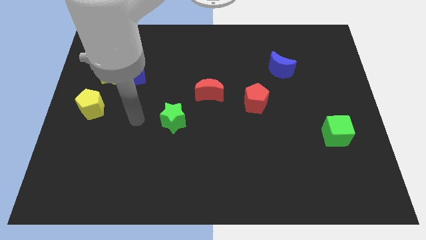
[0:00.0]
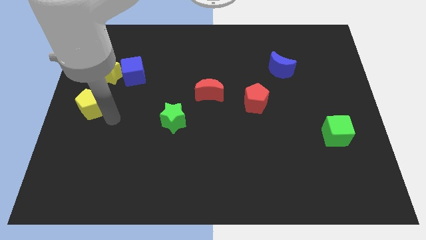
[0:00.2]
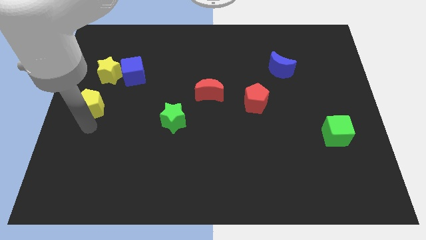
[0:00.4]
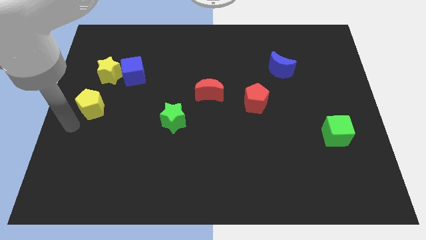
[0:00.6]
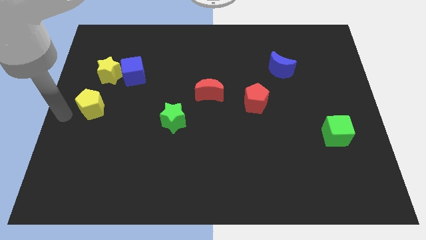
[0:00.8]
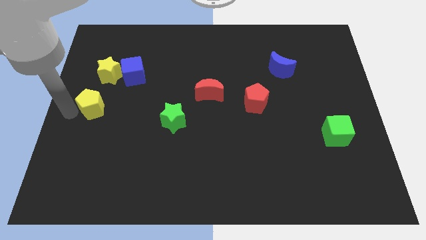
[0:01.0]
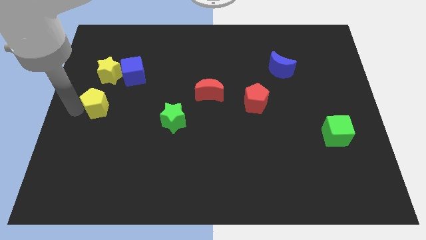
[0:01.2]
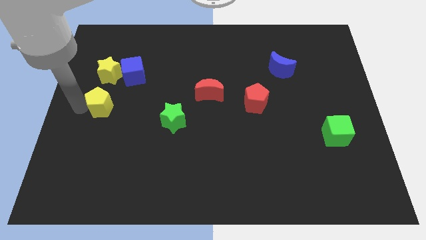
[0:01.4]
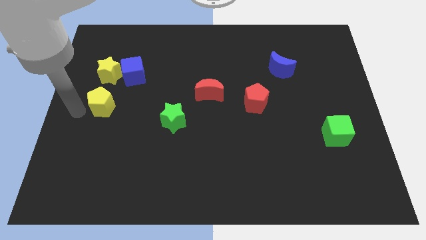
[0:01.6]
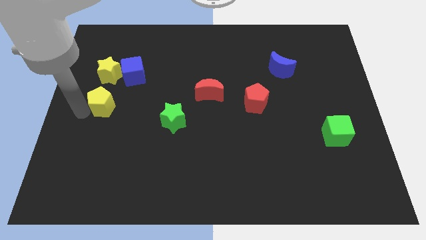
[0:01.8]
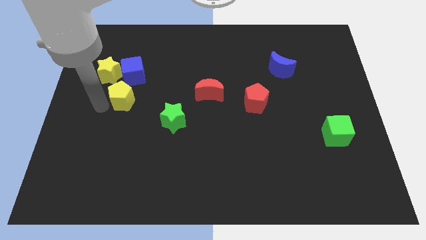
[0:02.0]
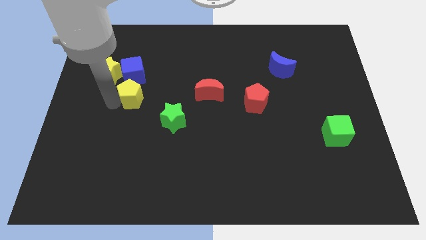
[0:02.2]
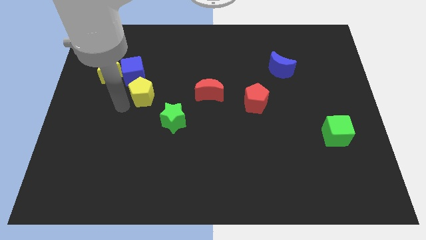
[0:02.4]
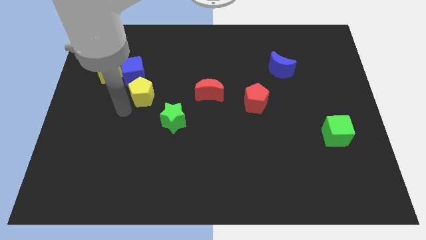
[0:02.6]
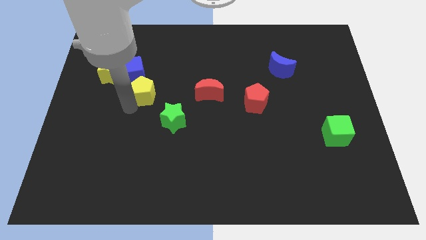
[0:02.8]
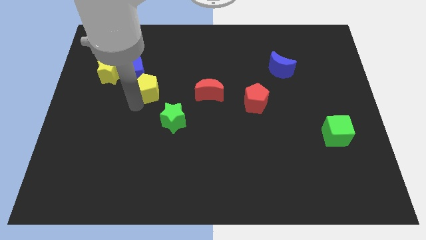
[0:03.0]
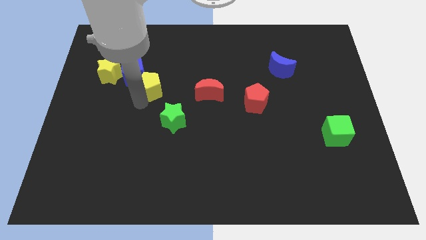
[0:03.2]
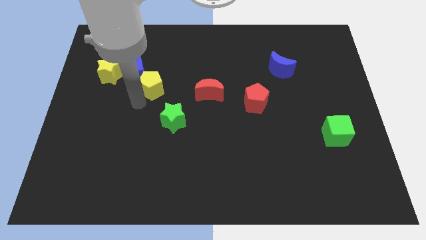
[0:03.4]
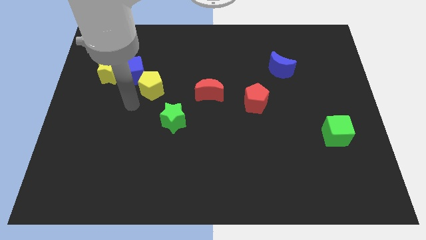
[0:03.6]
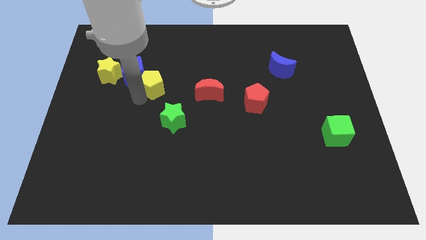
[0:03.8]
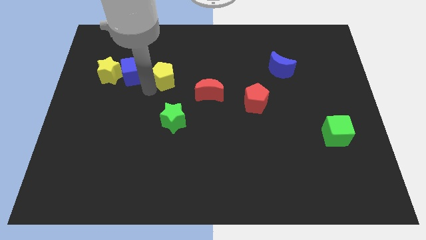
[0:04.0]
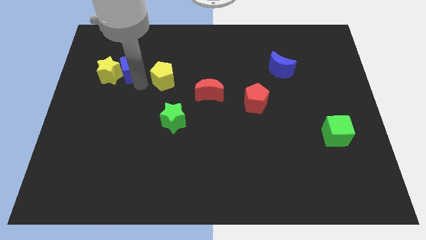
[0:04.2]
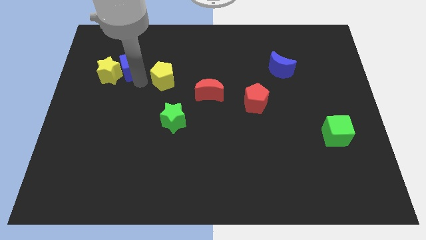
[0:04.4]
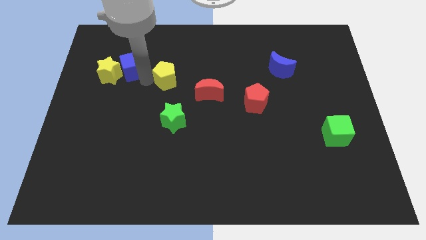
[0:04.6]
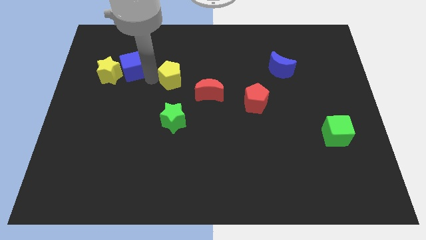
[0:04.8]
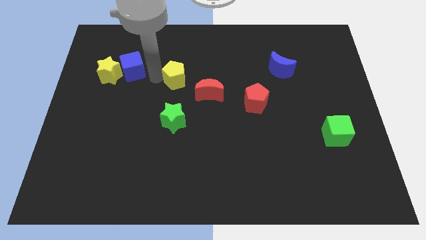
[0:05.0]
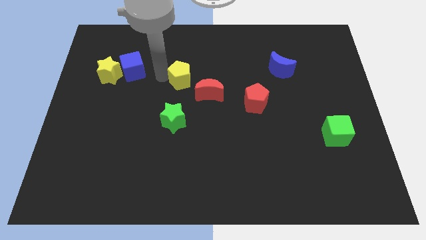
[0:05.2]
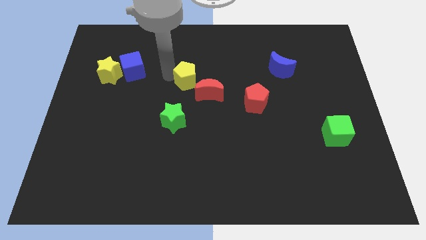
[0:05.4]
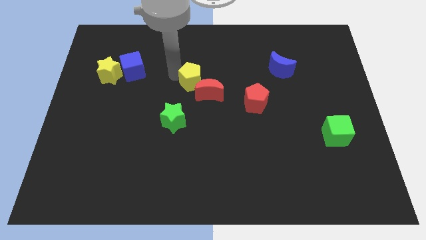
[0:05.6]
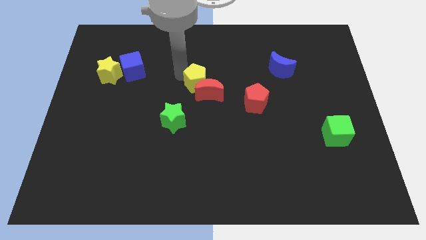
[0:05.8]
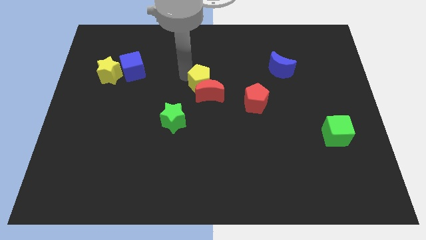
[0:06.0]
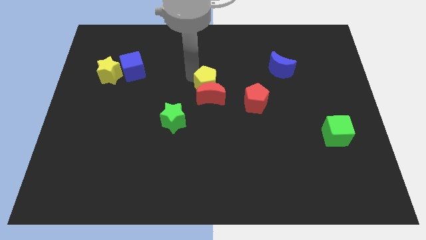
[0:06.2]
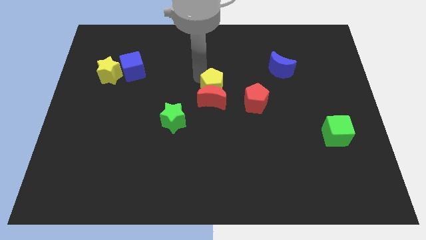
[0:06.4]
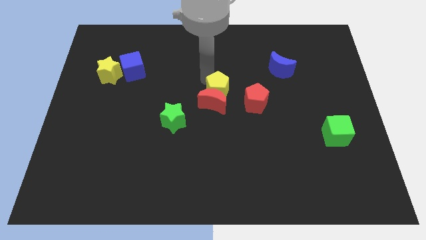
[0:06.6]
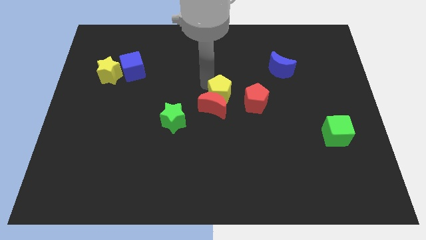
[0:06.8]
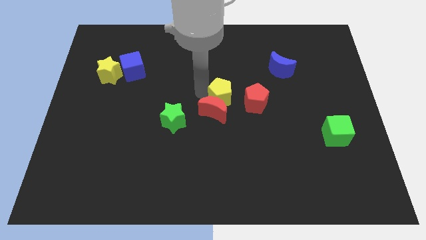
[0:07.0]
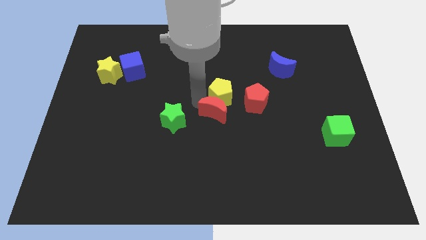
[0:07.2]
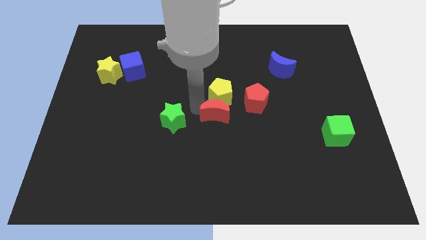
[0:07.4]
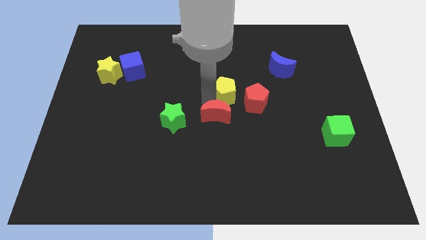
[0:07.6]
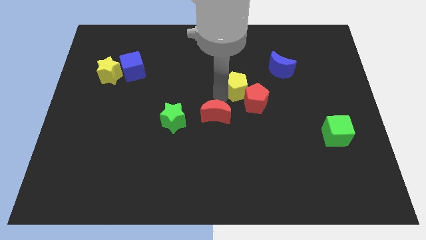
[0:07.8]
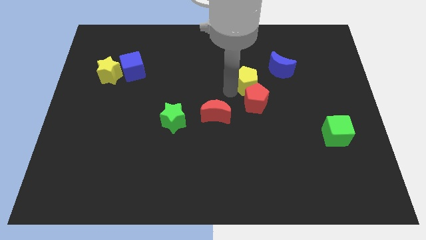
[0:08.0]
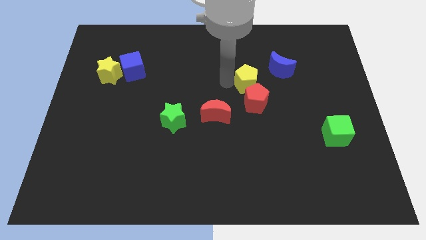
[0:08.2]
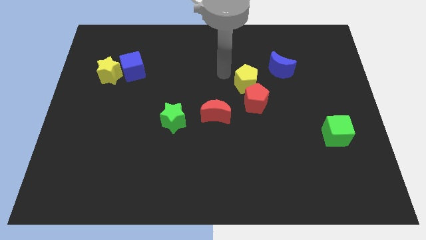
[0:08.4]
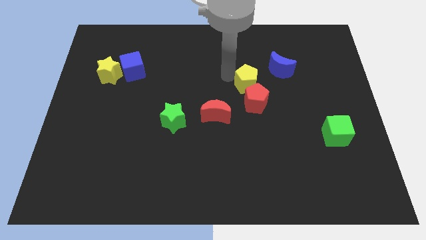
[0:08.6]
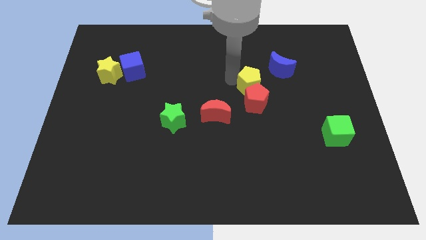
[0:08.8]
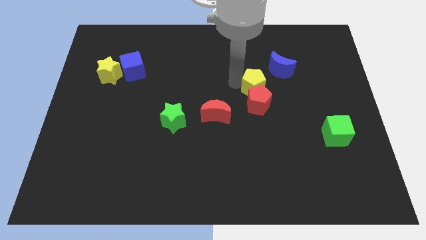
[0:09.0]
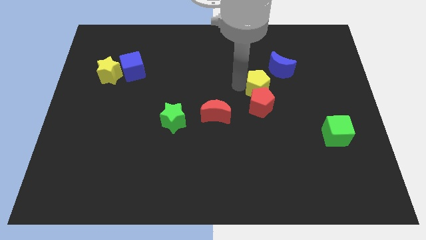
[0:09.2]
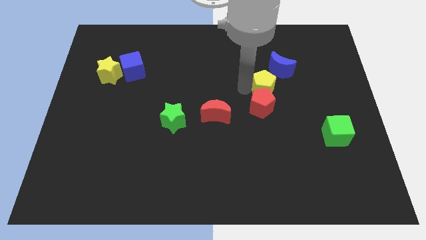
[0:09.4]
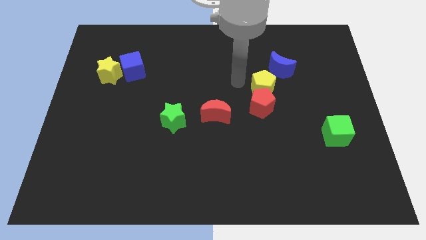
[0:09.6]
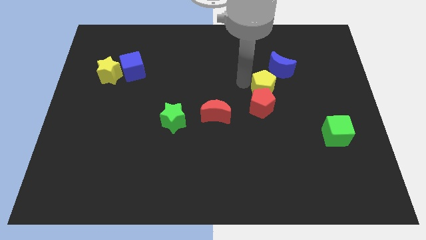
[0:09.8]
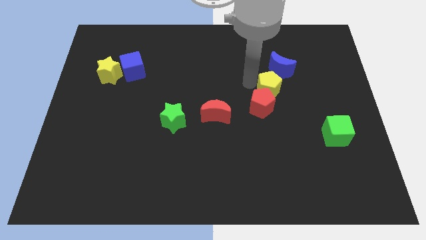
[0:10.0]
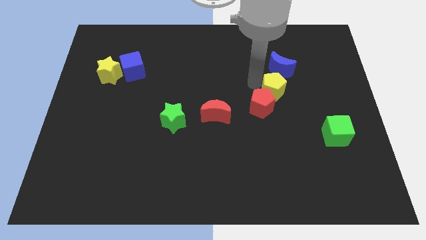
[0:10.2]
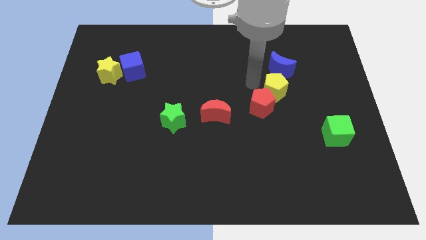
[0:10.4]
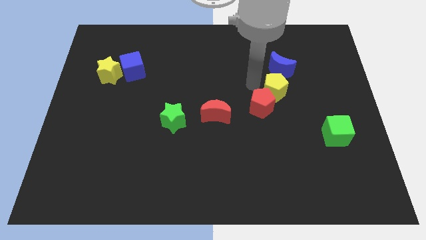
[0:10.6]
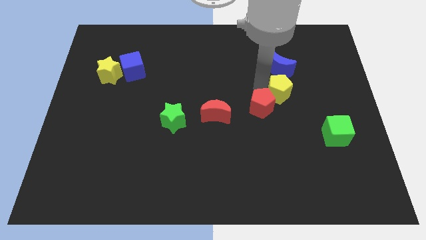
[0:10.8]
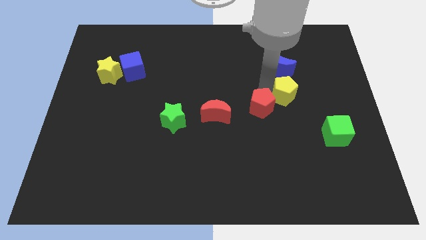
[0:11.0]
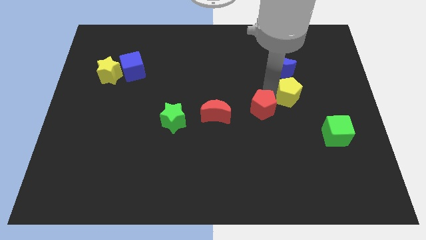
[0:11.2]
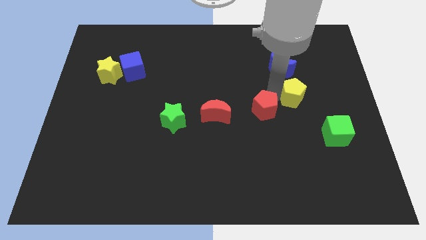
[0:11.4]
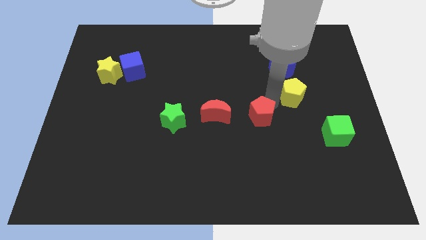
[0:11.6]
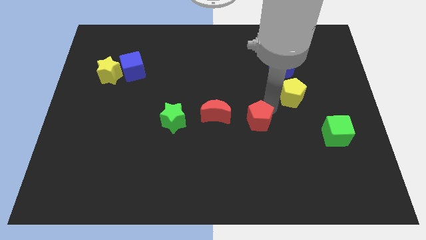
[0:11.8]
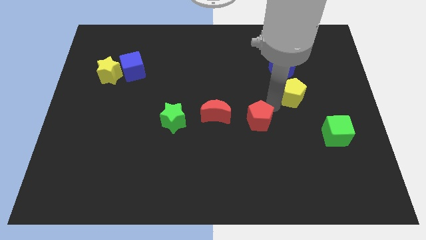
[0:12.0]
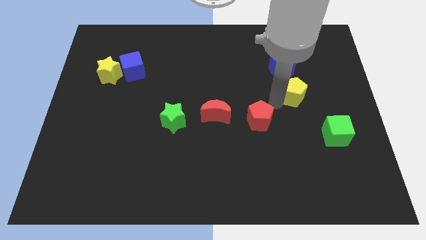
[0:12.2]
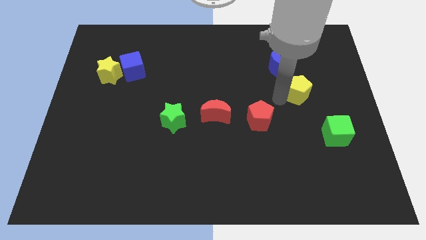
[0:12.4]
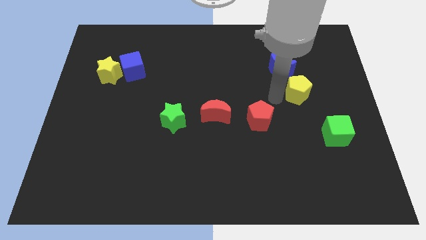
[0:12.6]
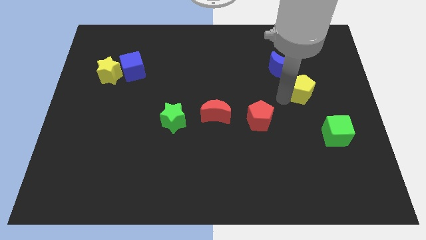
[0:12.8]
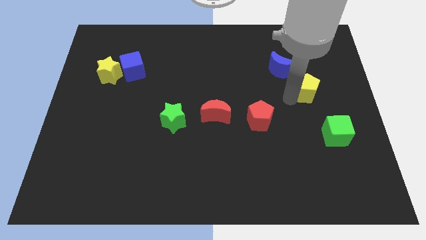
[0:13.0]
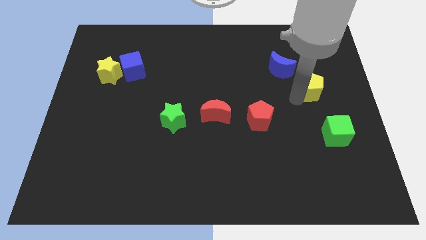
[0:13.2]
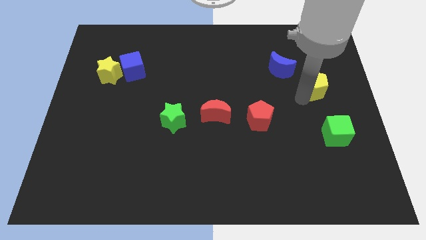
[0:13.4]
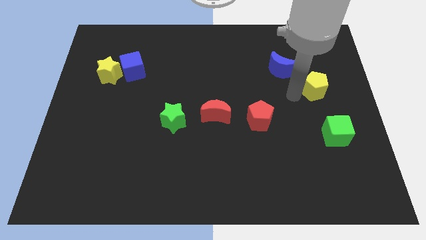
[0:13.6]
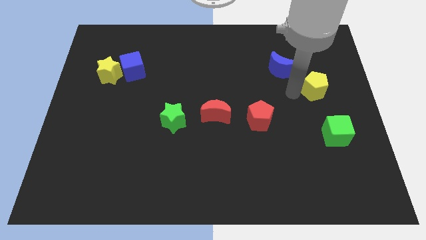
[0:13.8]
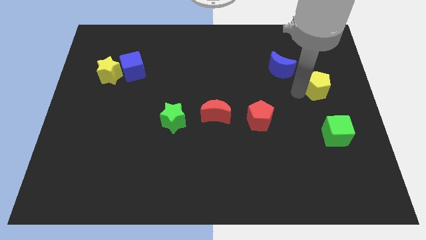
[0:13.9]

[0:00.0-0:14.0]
put the yellow pentagon to the center right
